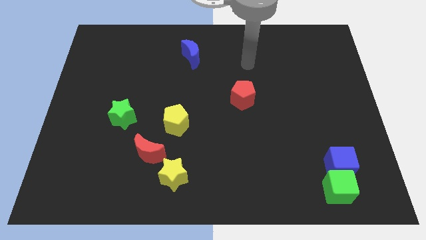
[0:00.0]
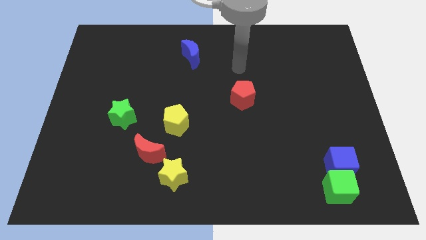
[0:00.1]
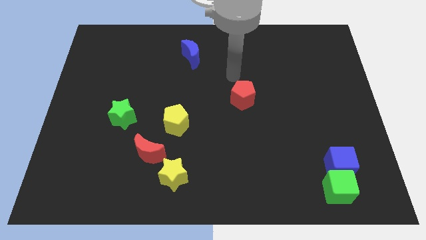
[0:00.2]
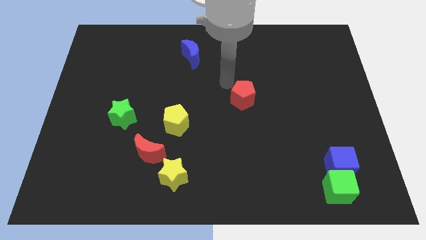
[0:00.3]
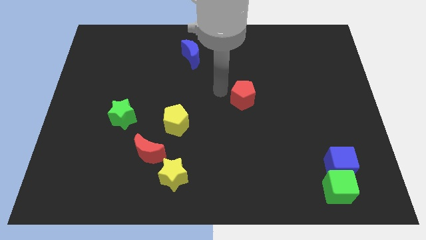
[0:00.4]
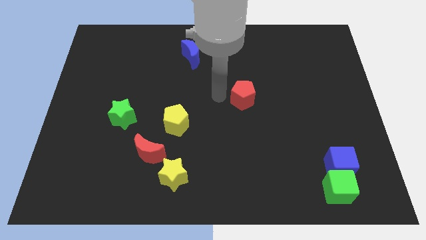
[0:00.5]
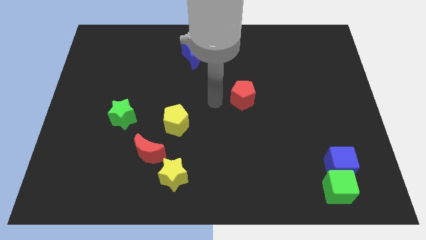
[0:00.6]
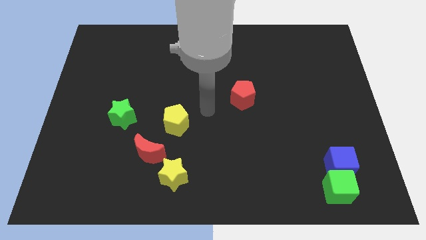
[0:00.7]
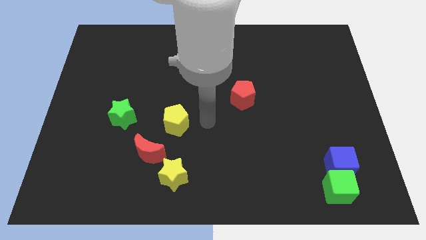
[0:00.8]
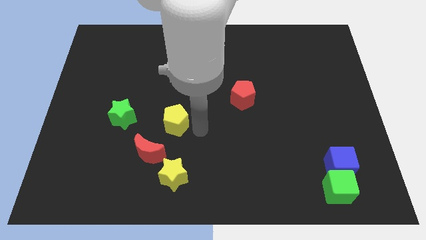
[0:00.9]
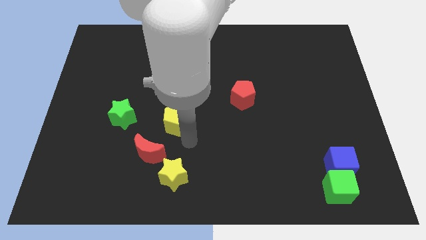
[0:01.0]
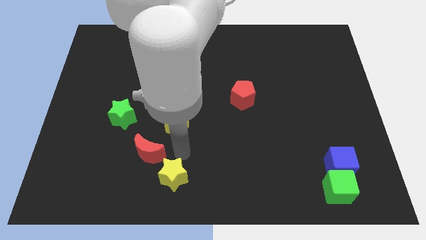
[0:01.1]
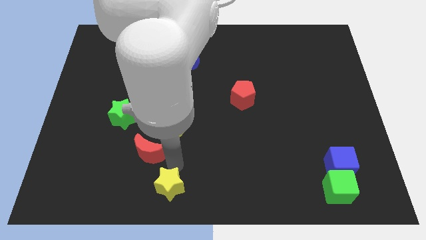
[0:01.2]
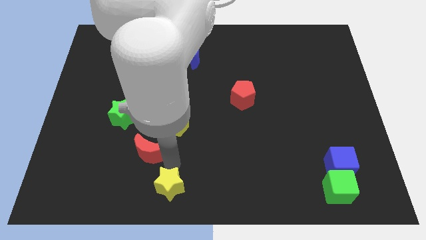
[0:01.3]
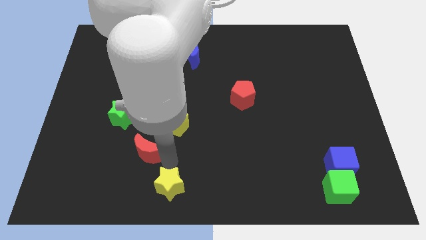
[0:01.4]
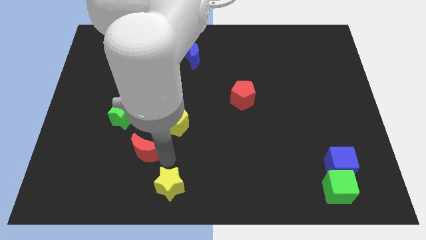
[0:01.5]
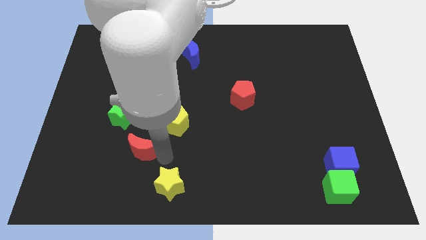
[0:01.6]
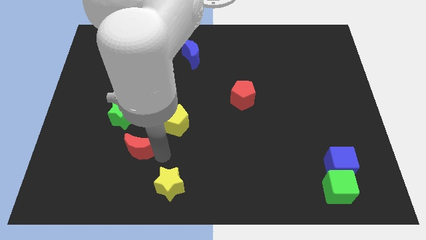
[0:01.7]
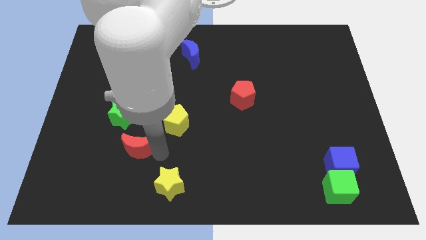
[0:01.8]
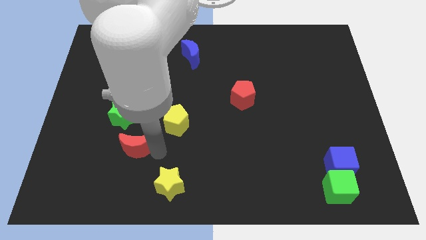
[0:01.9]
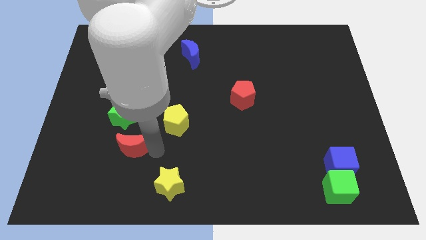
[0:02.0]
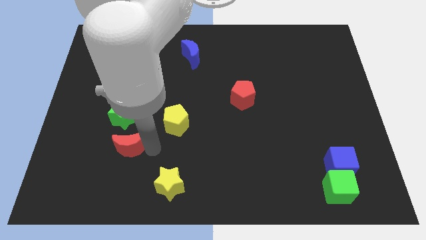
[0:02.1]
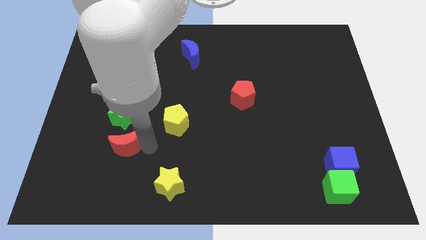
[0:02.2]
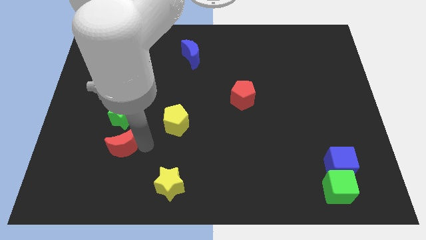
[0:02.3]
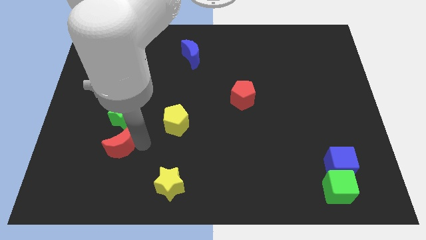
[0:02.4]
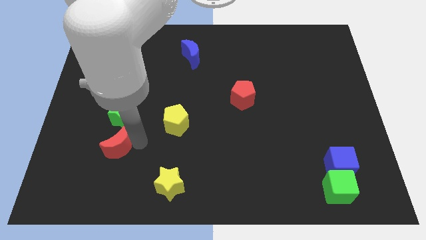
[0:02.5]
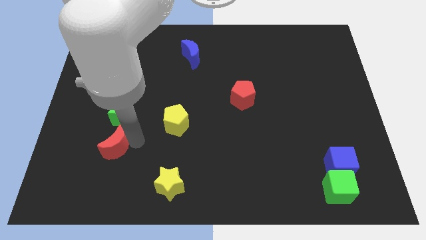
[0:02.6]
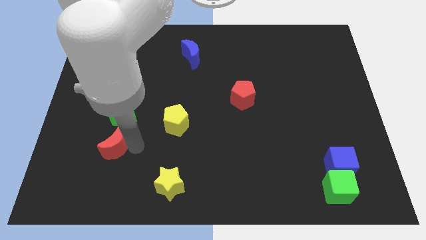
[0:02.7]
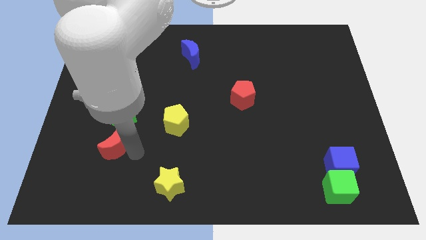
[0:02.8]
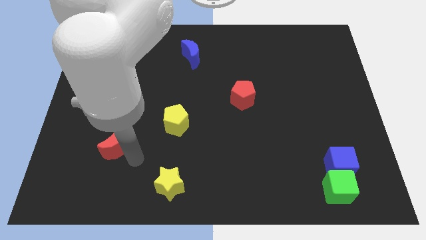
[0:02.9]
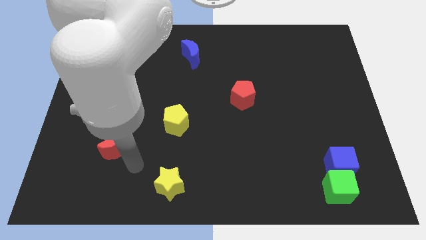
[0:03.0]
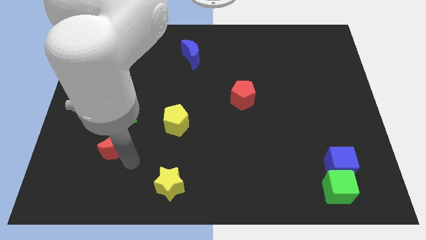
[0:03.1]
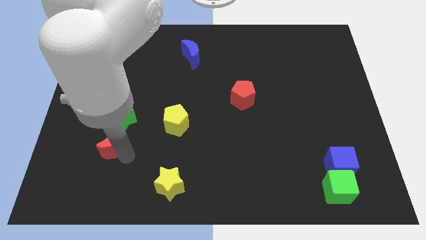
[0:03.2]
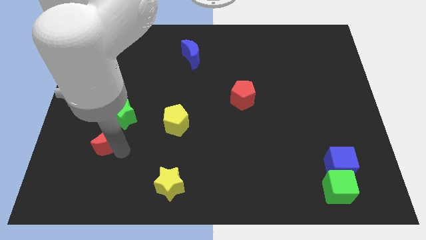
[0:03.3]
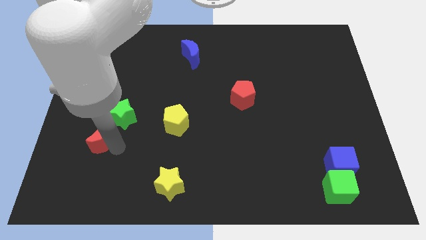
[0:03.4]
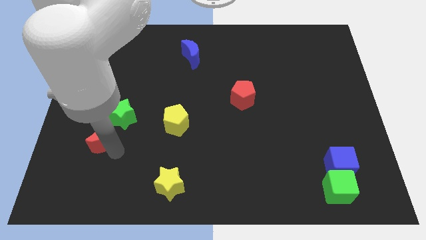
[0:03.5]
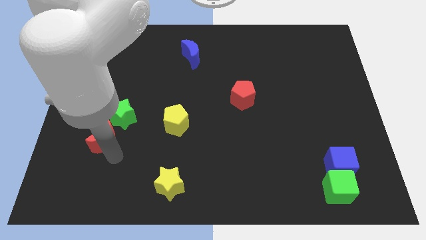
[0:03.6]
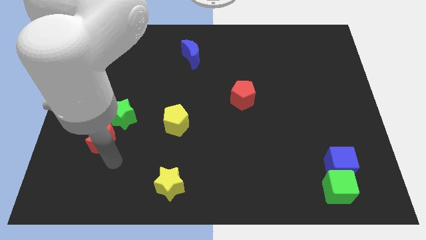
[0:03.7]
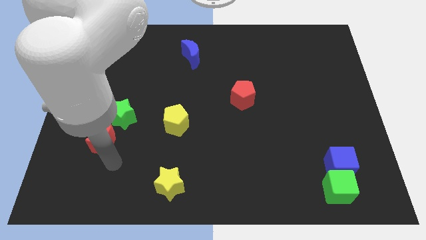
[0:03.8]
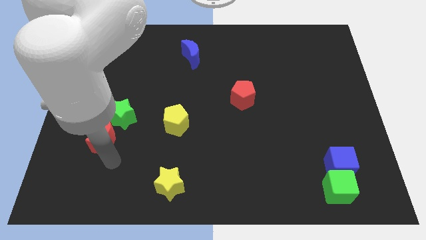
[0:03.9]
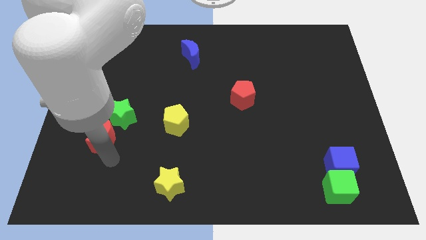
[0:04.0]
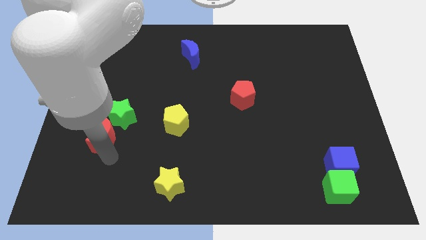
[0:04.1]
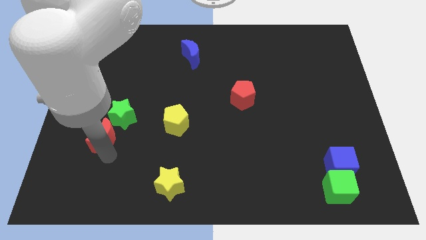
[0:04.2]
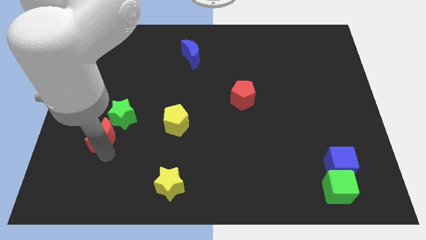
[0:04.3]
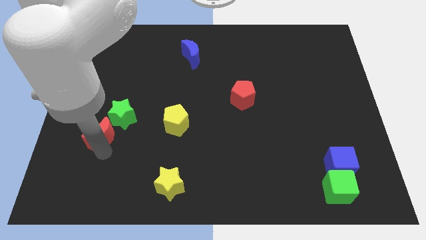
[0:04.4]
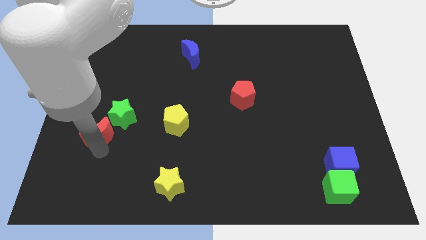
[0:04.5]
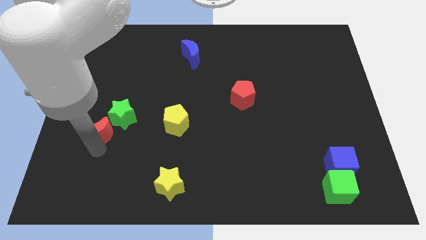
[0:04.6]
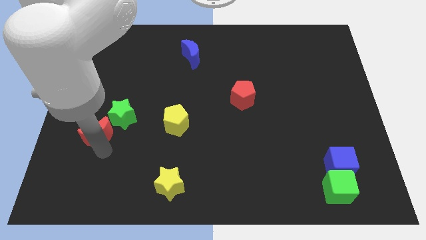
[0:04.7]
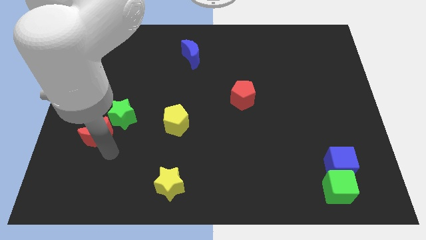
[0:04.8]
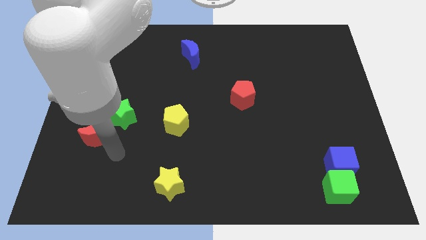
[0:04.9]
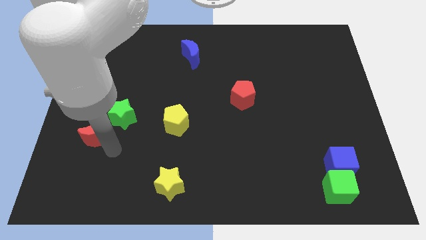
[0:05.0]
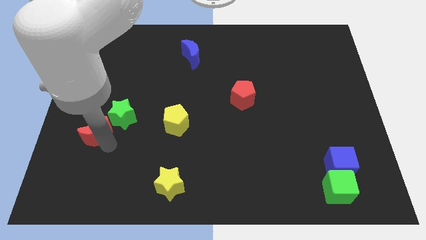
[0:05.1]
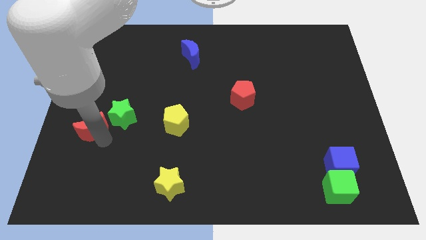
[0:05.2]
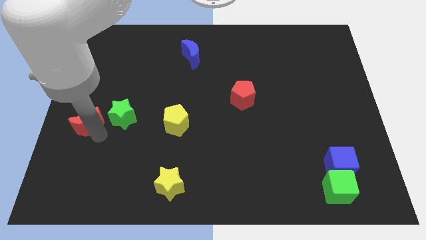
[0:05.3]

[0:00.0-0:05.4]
move the red moon to the center left

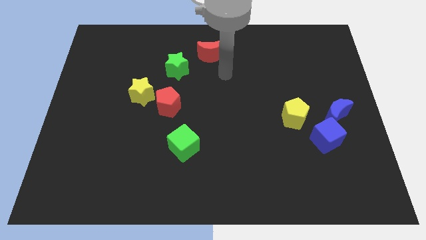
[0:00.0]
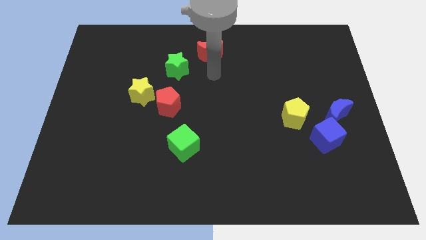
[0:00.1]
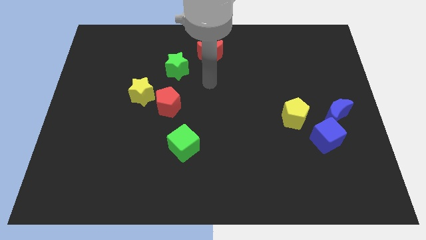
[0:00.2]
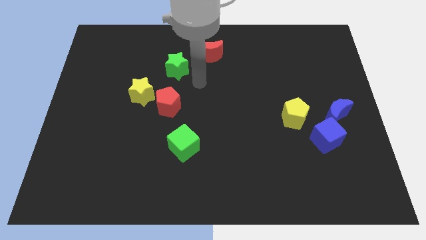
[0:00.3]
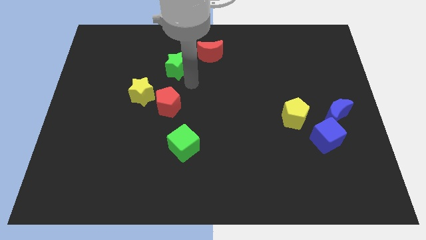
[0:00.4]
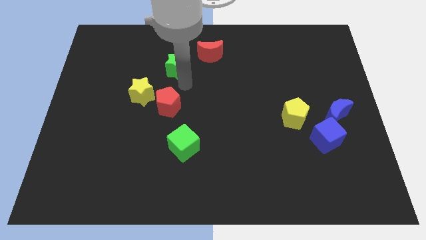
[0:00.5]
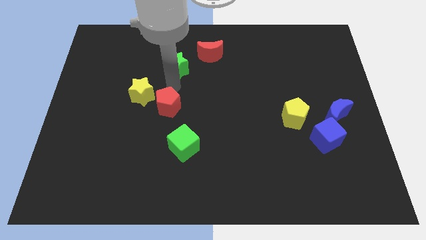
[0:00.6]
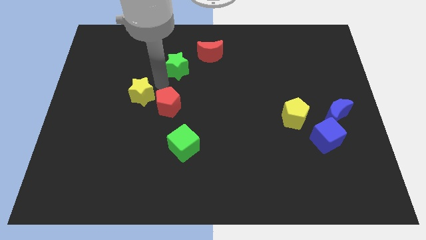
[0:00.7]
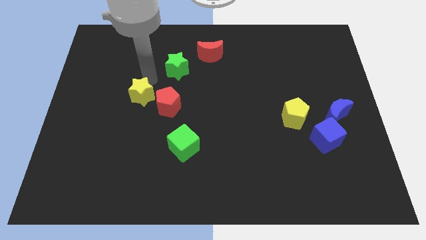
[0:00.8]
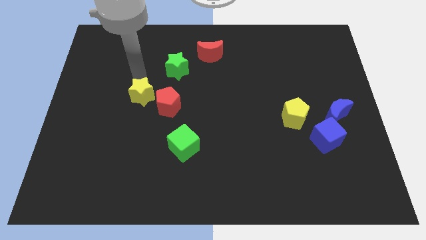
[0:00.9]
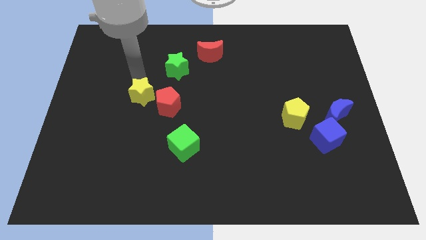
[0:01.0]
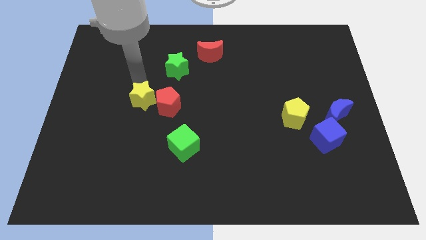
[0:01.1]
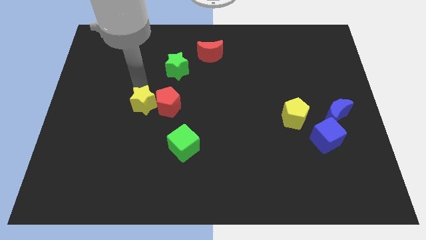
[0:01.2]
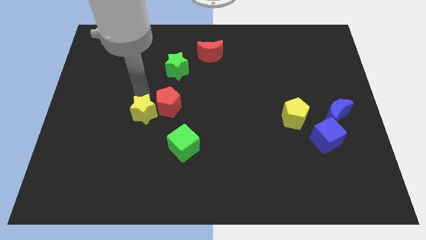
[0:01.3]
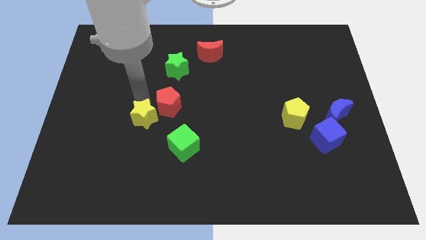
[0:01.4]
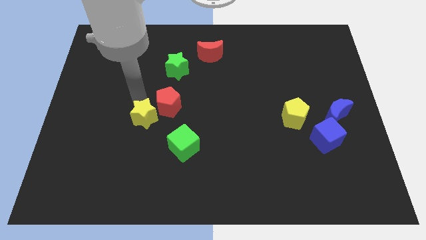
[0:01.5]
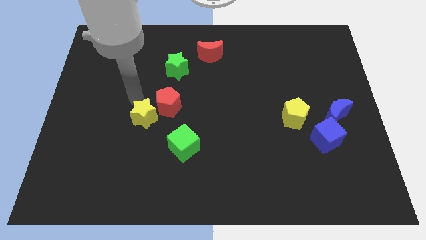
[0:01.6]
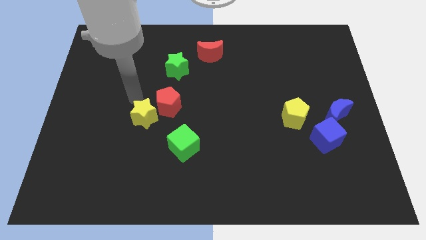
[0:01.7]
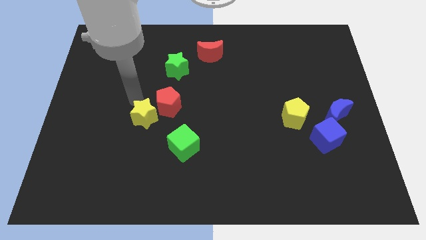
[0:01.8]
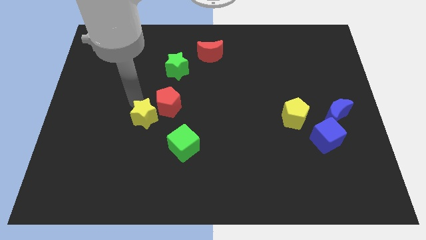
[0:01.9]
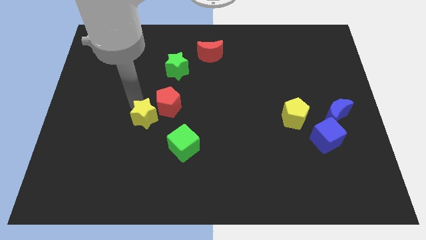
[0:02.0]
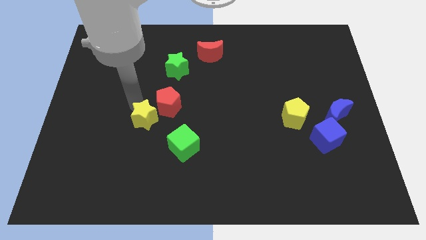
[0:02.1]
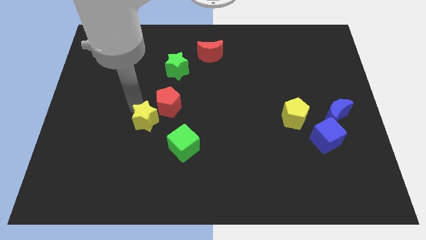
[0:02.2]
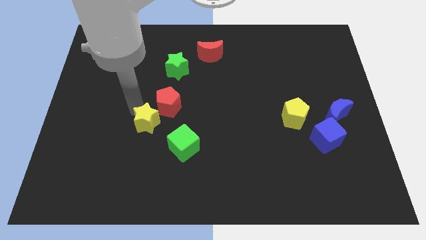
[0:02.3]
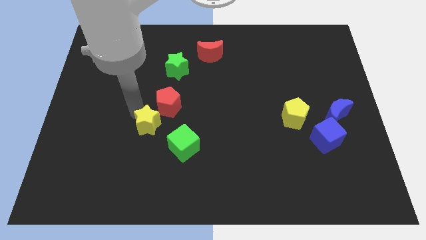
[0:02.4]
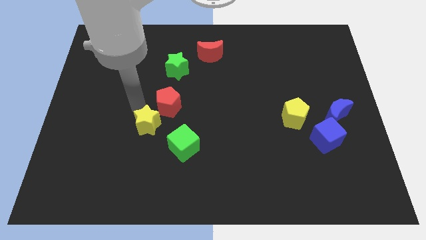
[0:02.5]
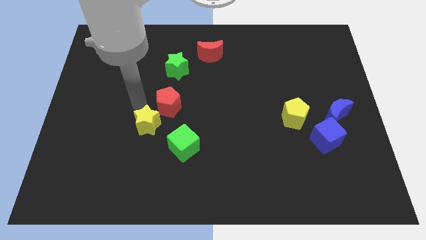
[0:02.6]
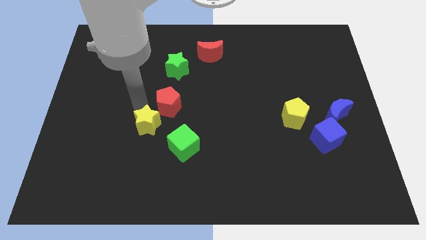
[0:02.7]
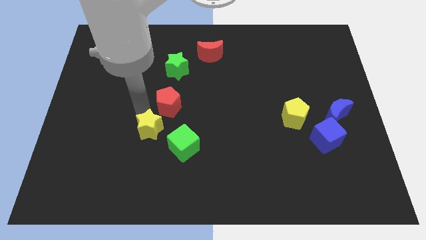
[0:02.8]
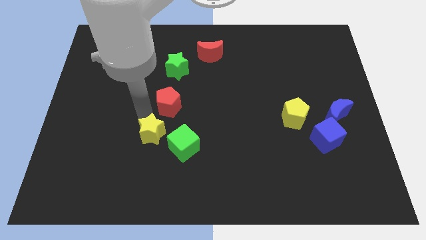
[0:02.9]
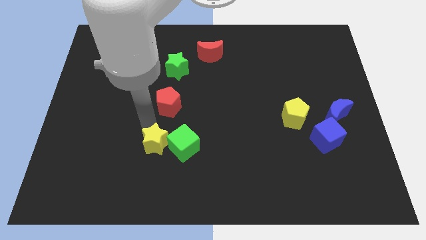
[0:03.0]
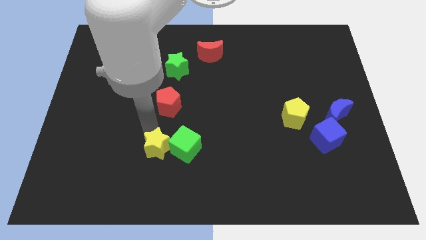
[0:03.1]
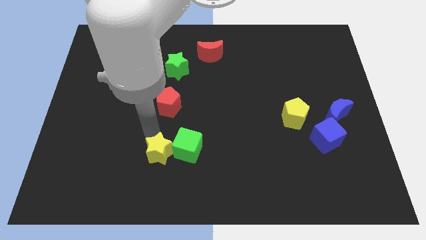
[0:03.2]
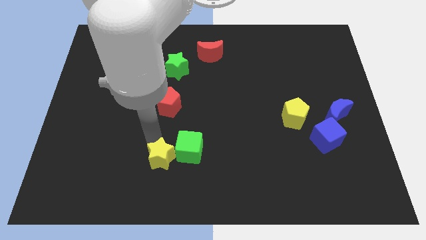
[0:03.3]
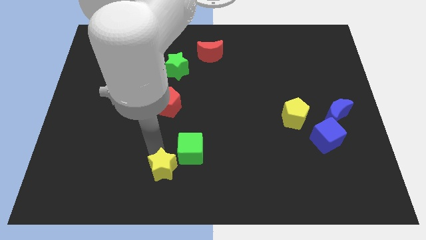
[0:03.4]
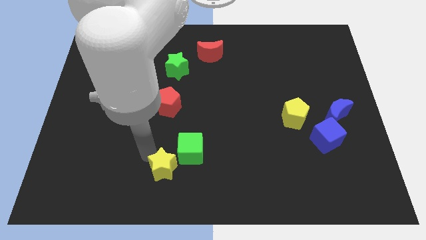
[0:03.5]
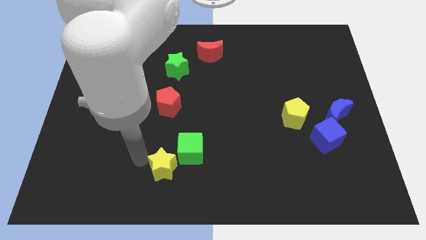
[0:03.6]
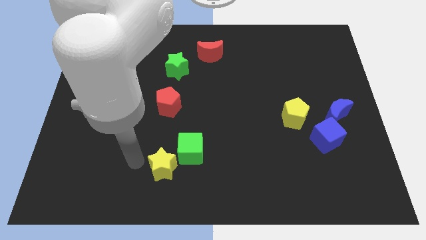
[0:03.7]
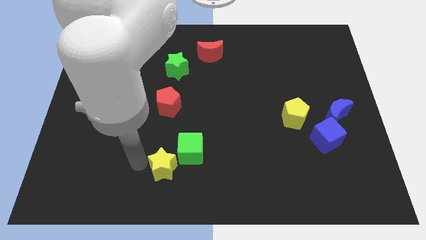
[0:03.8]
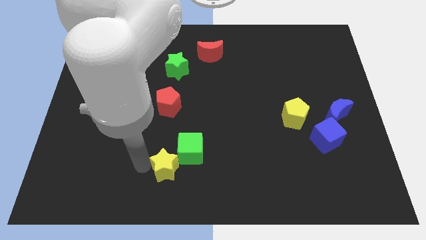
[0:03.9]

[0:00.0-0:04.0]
push the yellow star to the bottom side
